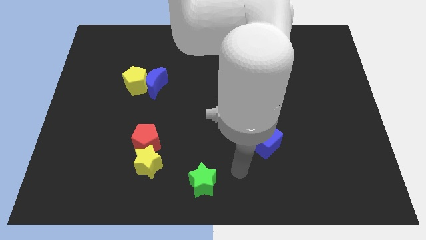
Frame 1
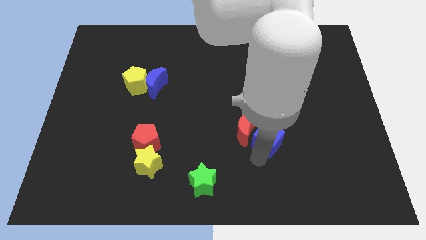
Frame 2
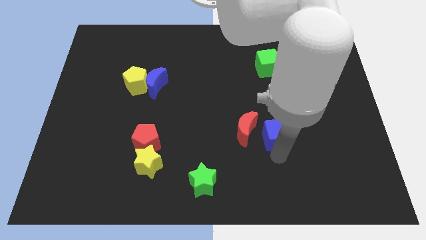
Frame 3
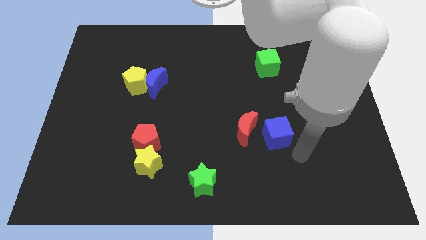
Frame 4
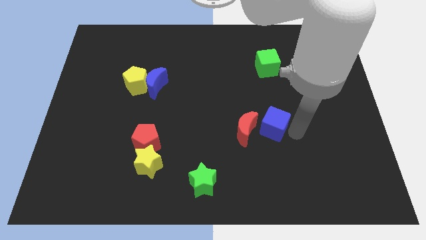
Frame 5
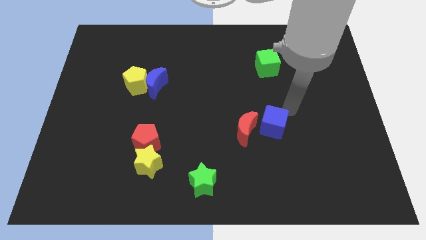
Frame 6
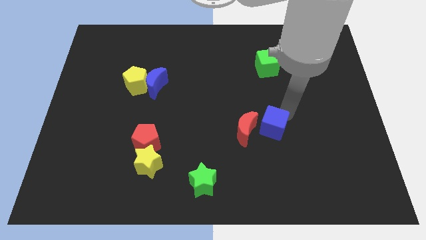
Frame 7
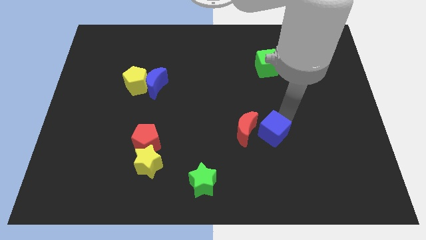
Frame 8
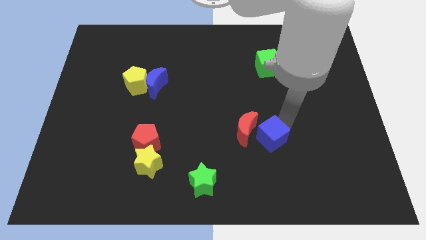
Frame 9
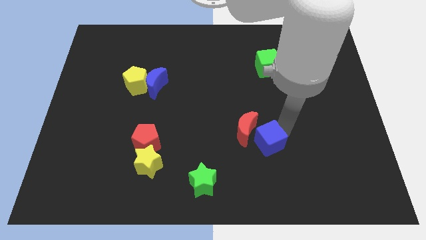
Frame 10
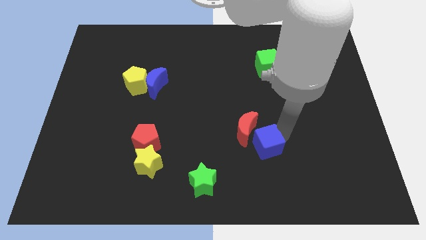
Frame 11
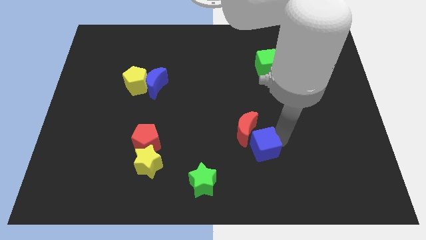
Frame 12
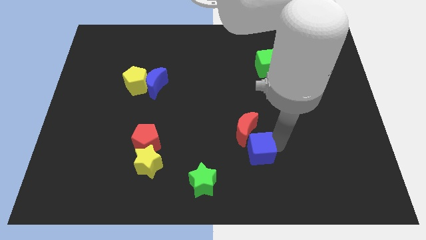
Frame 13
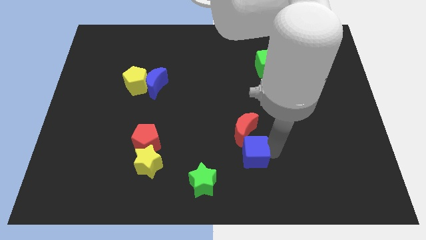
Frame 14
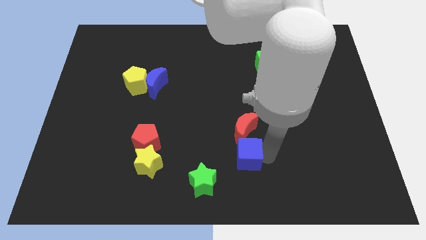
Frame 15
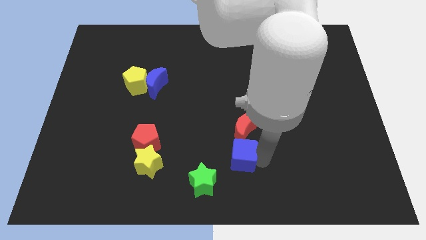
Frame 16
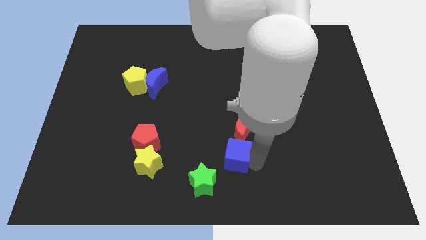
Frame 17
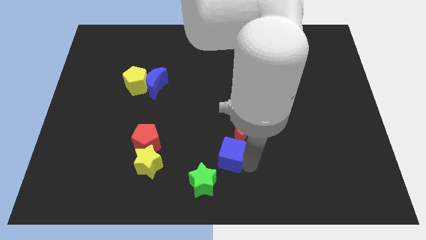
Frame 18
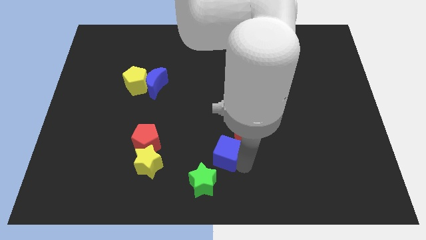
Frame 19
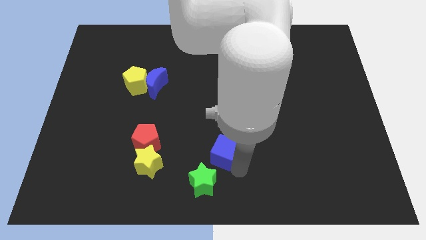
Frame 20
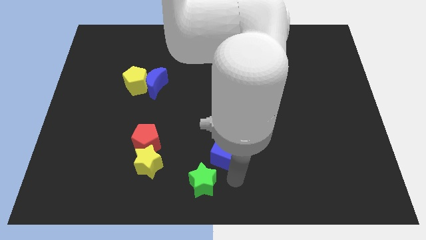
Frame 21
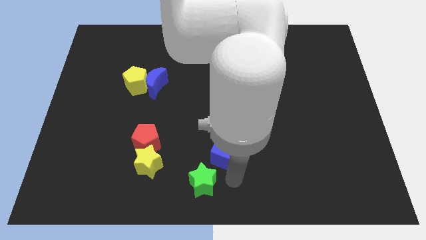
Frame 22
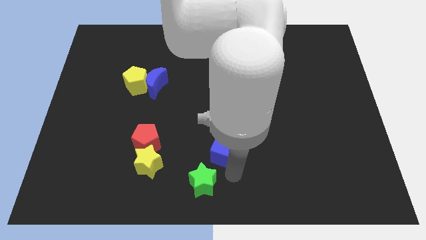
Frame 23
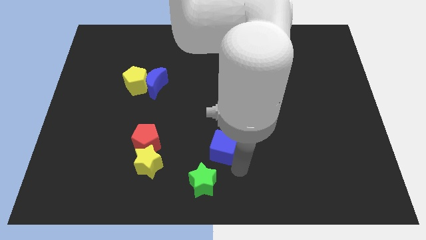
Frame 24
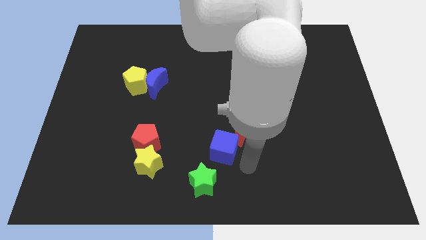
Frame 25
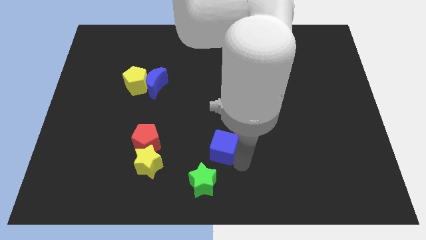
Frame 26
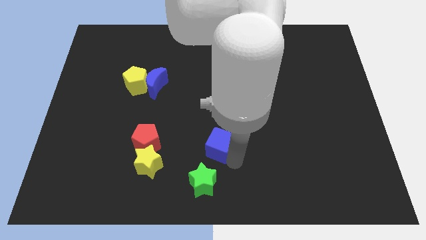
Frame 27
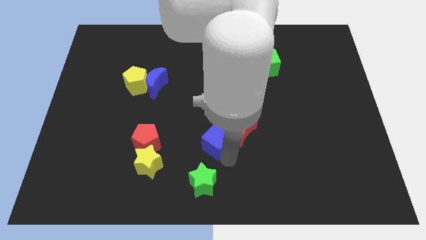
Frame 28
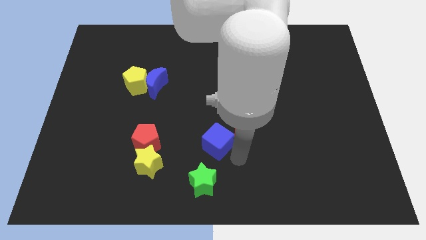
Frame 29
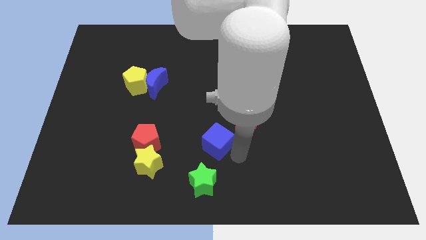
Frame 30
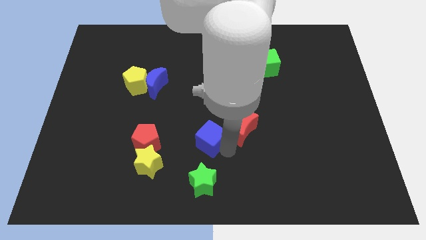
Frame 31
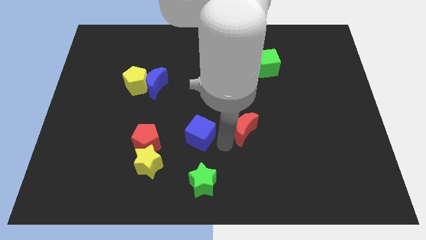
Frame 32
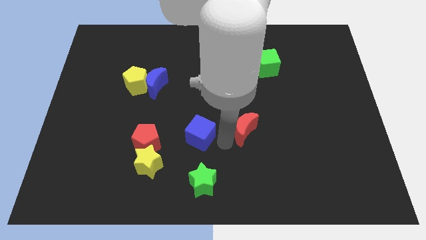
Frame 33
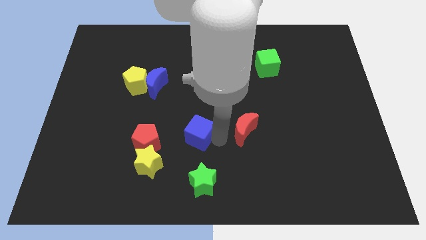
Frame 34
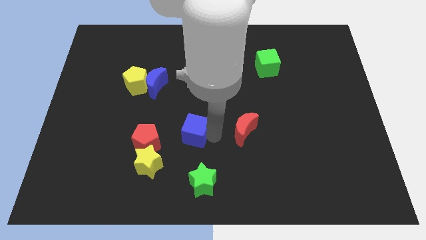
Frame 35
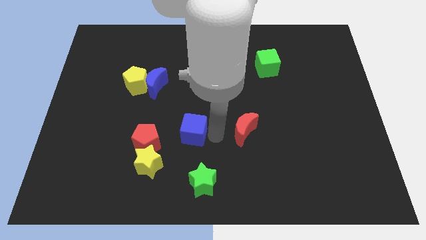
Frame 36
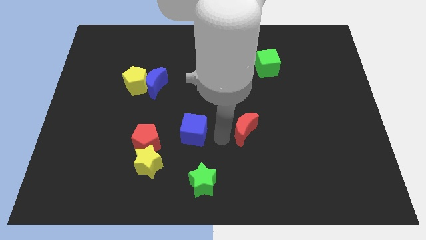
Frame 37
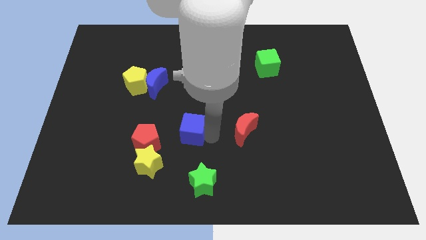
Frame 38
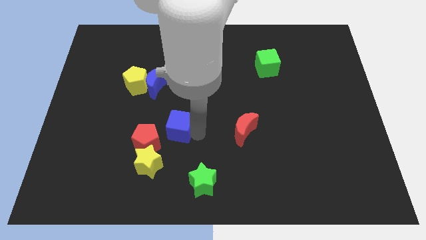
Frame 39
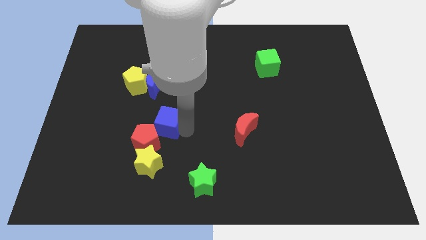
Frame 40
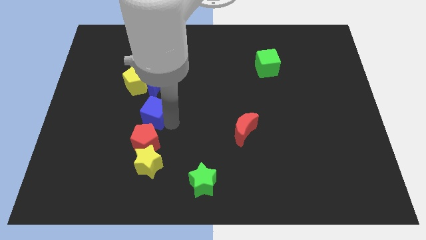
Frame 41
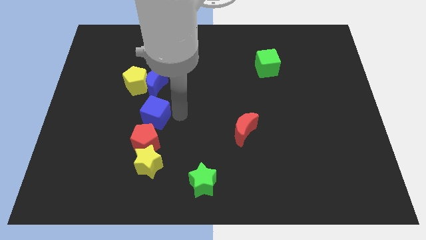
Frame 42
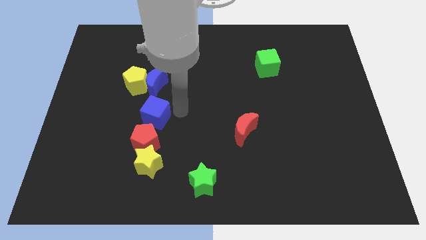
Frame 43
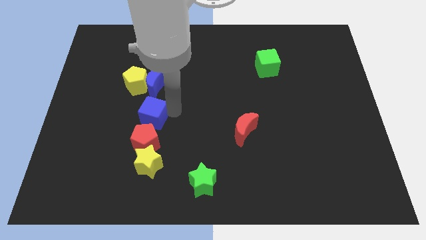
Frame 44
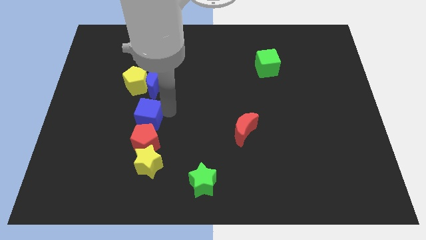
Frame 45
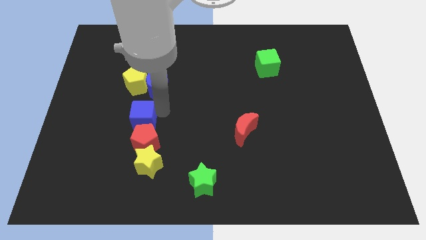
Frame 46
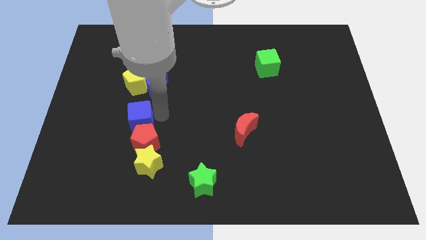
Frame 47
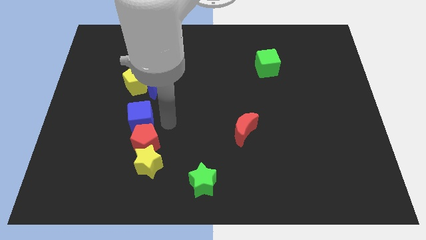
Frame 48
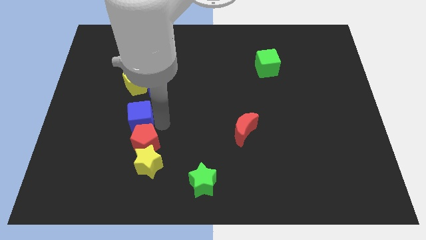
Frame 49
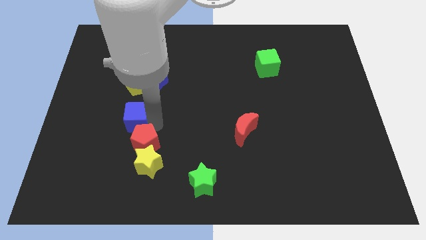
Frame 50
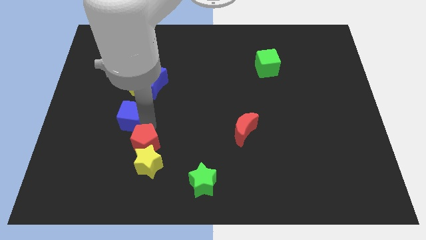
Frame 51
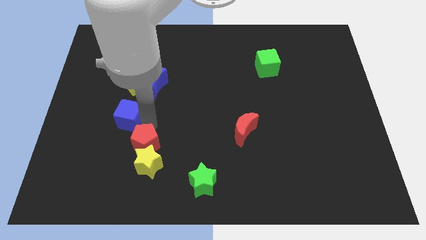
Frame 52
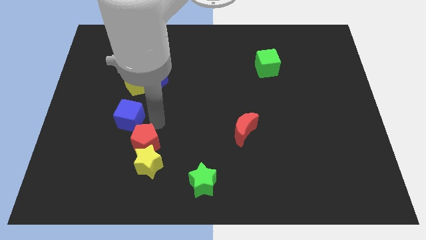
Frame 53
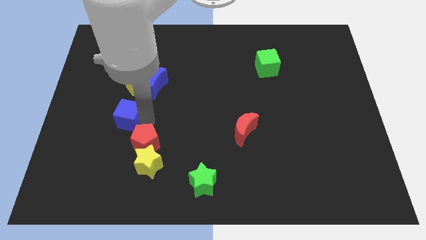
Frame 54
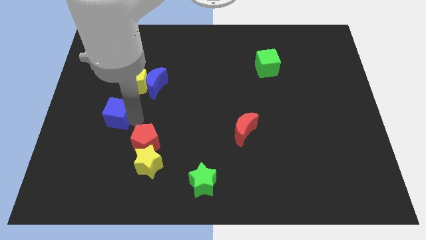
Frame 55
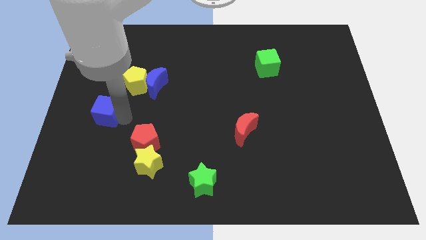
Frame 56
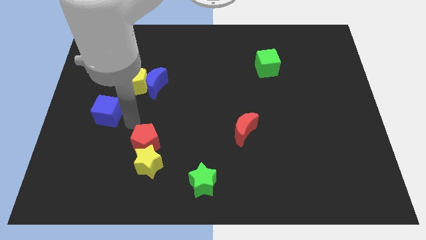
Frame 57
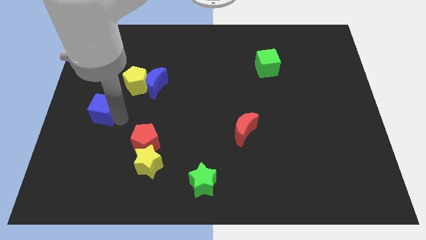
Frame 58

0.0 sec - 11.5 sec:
put the blue cube to the center left

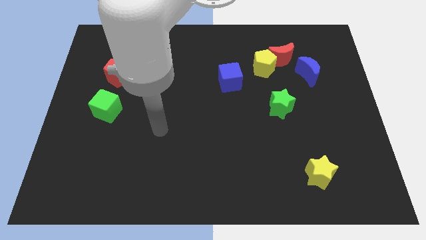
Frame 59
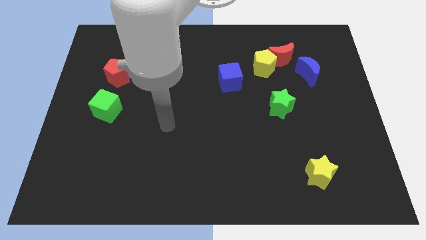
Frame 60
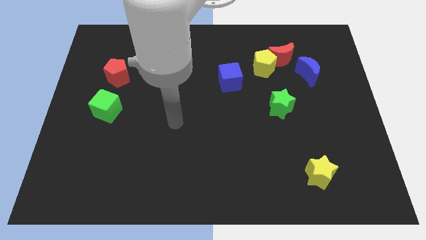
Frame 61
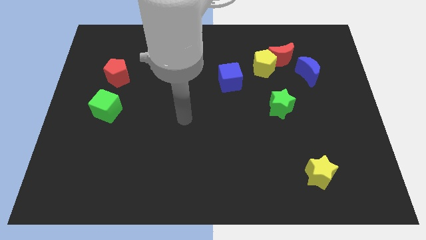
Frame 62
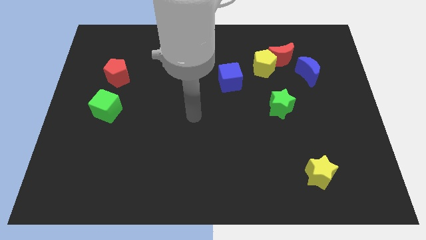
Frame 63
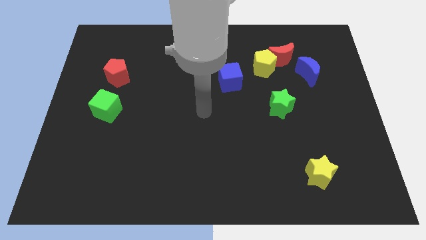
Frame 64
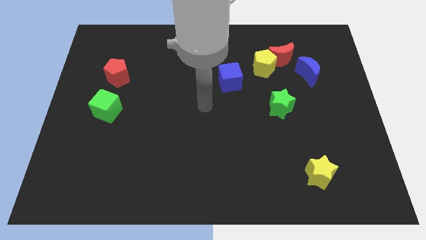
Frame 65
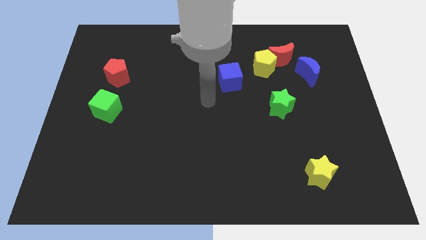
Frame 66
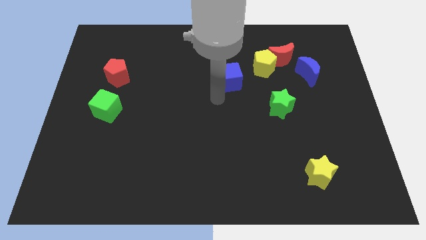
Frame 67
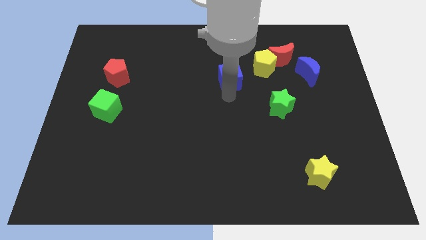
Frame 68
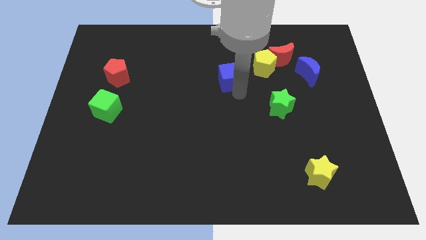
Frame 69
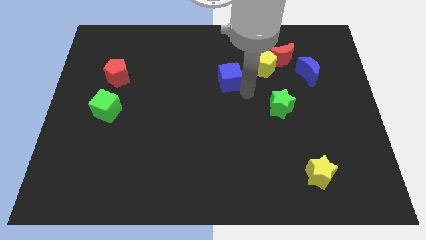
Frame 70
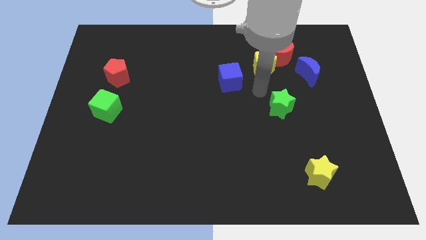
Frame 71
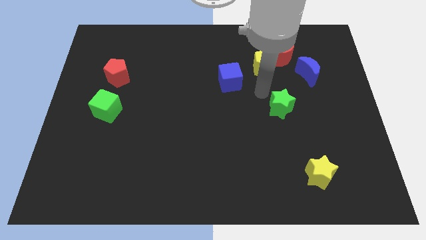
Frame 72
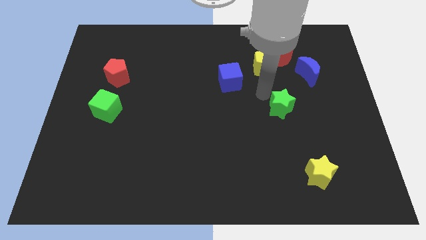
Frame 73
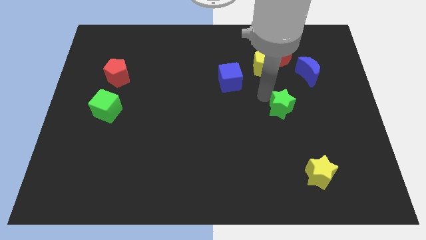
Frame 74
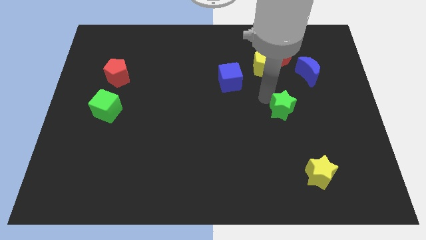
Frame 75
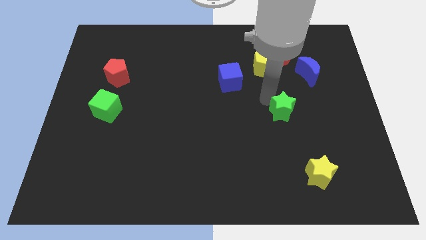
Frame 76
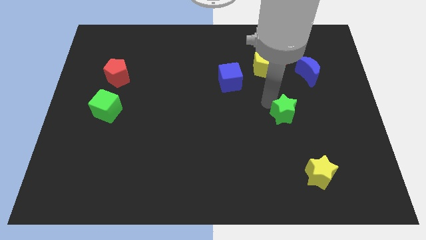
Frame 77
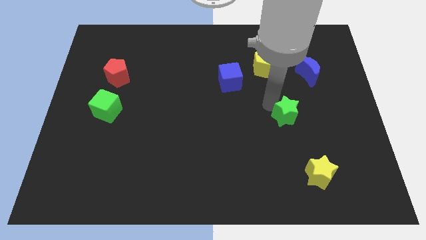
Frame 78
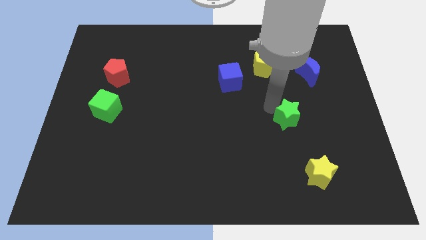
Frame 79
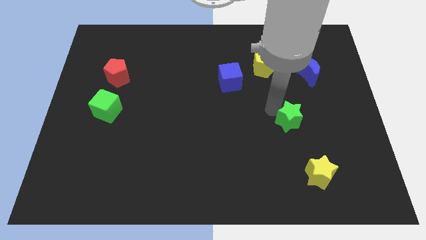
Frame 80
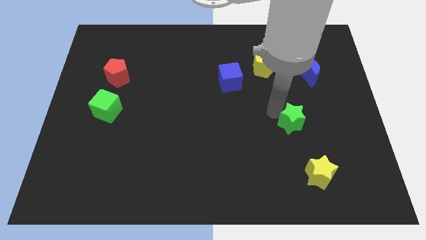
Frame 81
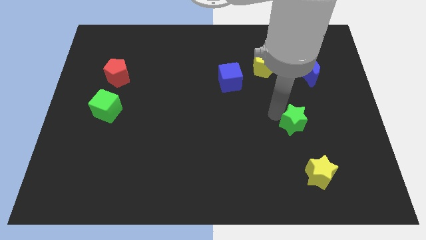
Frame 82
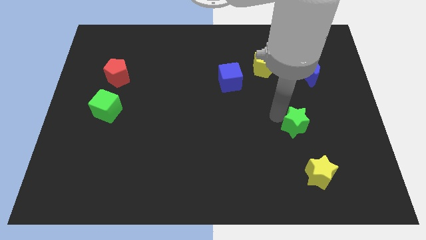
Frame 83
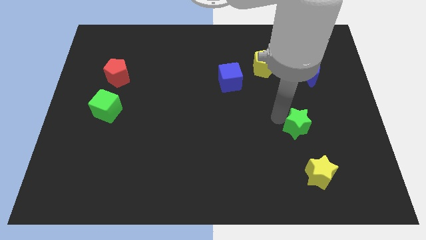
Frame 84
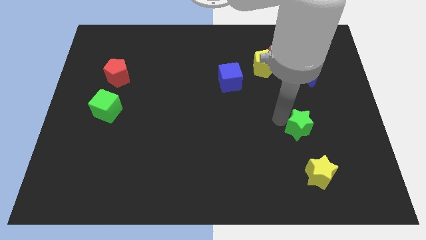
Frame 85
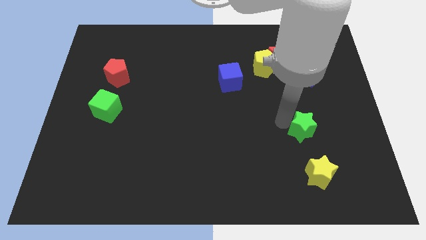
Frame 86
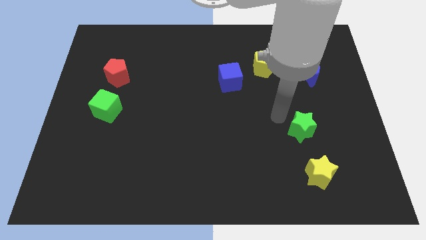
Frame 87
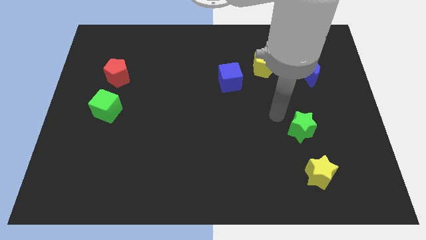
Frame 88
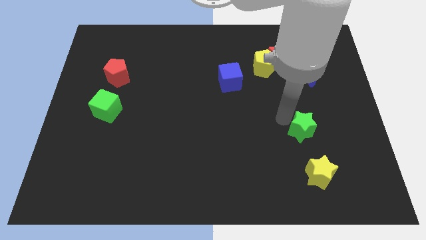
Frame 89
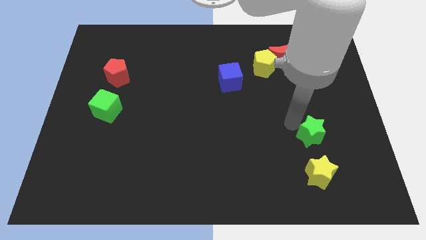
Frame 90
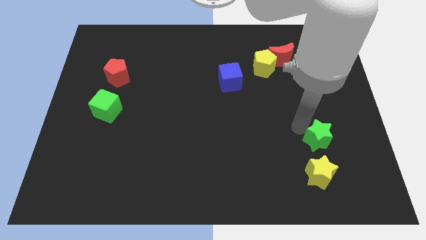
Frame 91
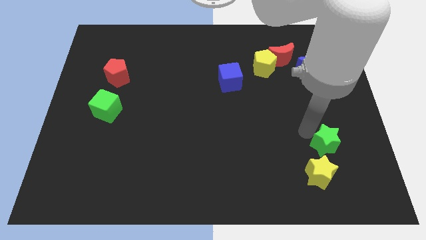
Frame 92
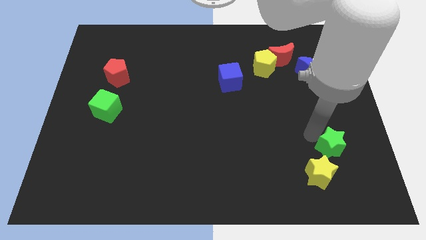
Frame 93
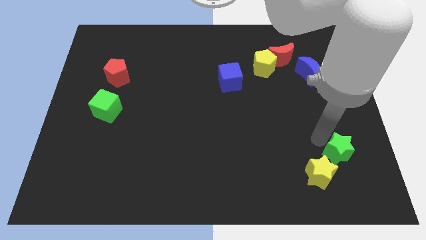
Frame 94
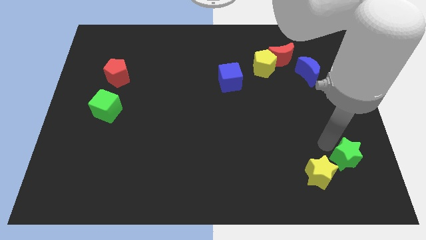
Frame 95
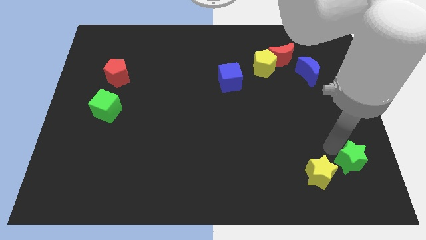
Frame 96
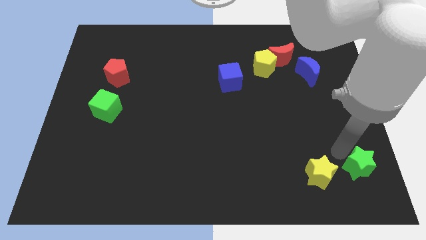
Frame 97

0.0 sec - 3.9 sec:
put the green star to the bottom right corner
